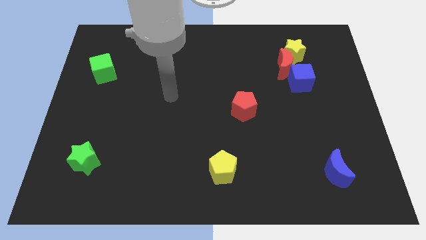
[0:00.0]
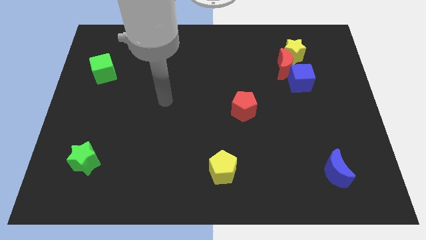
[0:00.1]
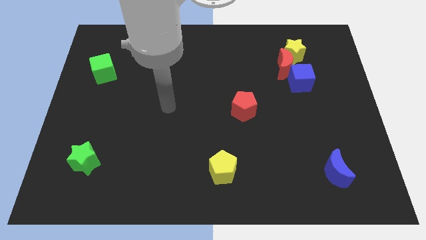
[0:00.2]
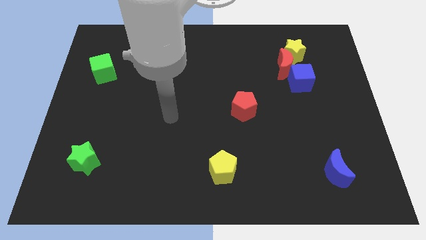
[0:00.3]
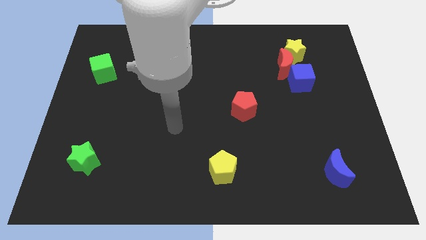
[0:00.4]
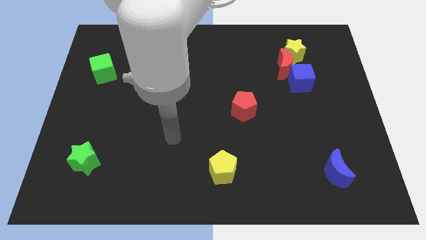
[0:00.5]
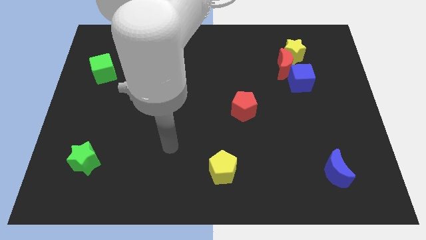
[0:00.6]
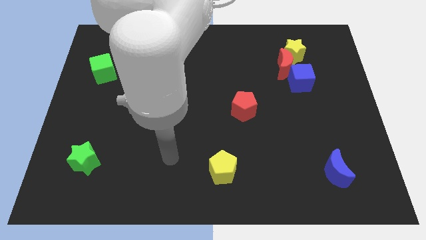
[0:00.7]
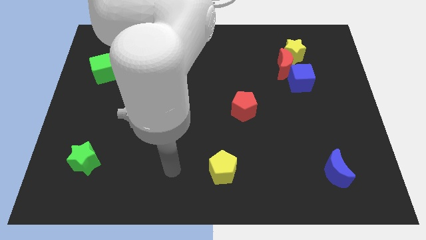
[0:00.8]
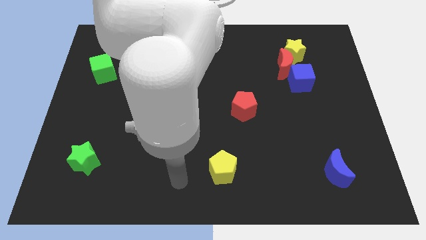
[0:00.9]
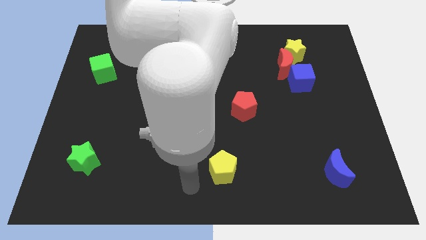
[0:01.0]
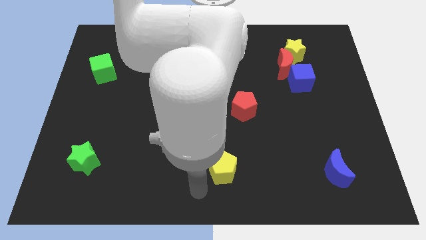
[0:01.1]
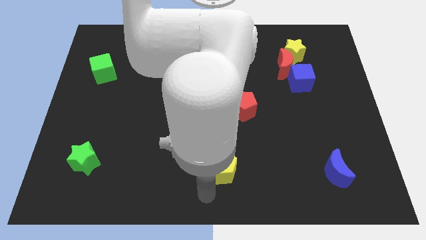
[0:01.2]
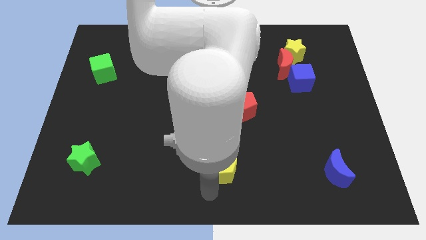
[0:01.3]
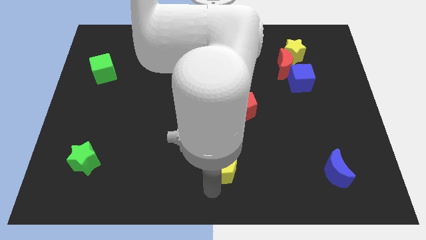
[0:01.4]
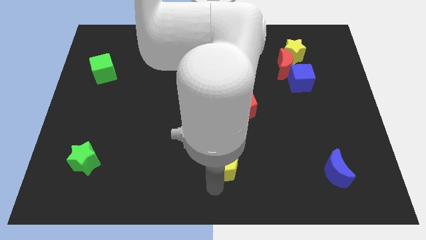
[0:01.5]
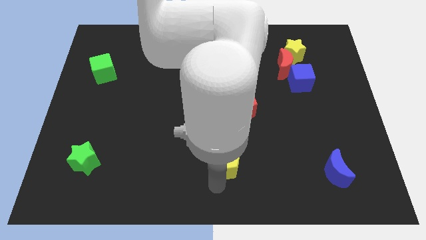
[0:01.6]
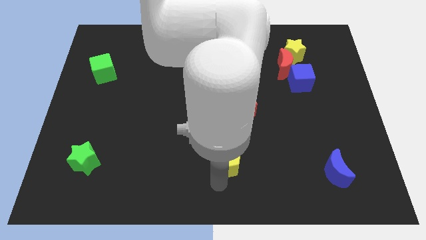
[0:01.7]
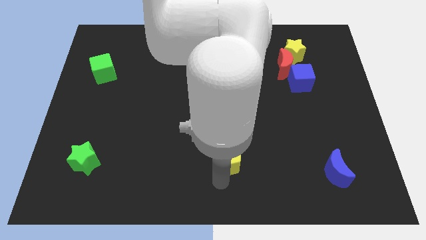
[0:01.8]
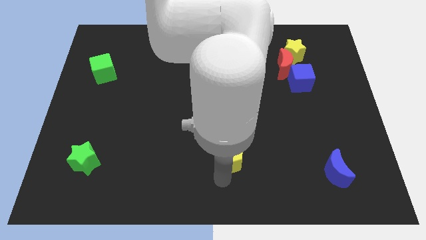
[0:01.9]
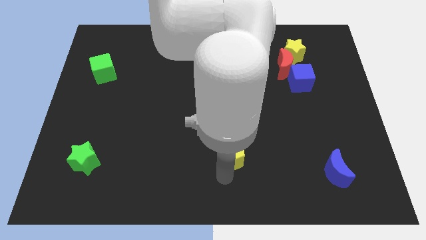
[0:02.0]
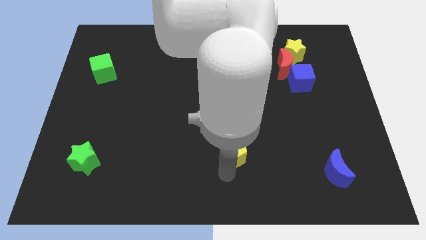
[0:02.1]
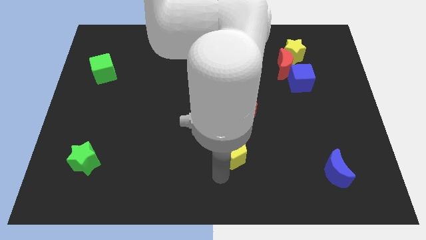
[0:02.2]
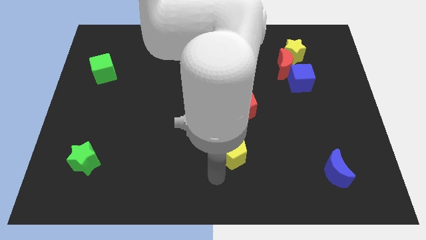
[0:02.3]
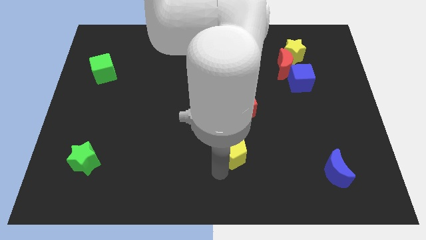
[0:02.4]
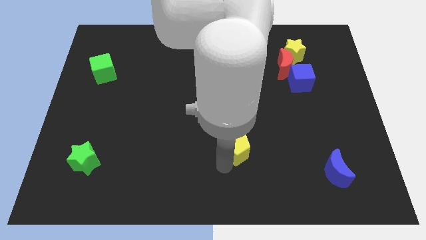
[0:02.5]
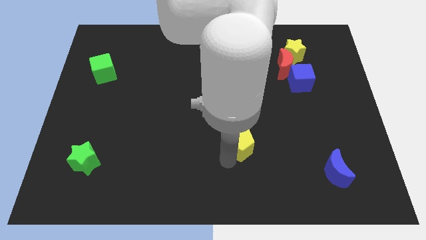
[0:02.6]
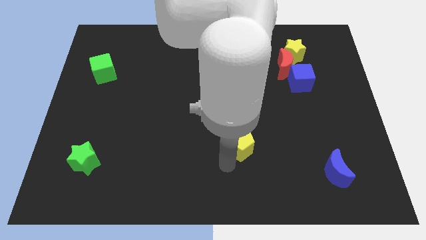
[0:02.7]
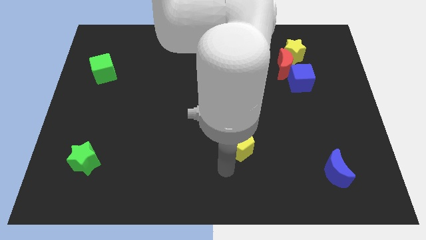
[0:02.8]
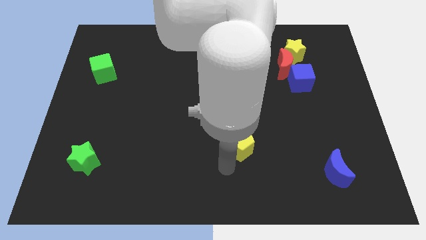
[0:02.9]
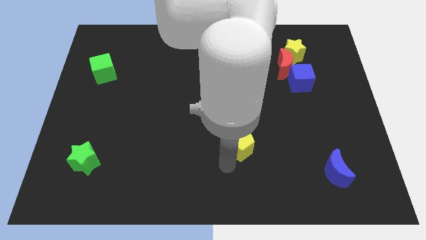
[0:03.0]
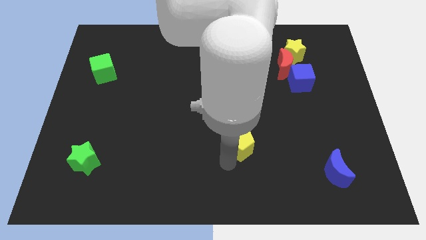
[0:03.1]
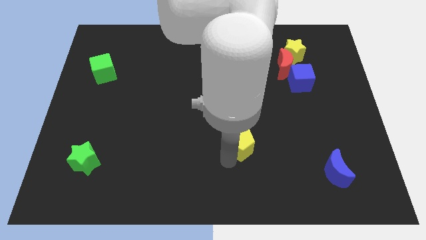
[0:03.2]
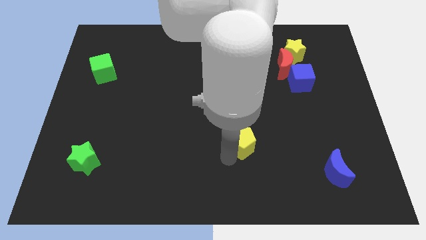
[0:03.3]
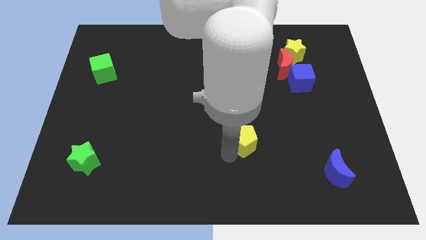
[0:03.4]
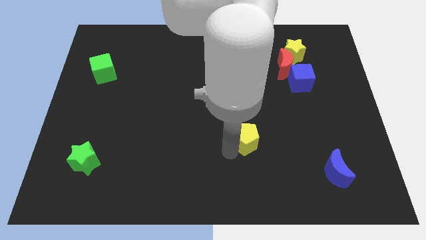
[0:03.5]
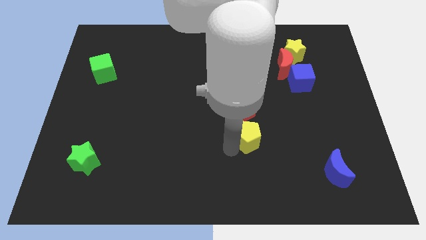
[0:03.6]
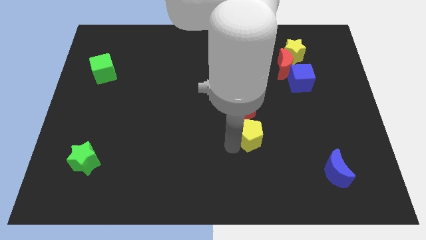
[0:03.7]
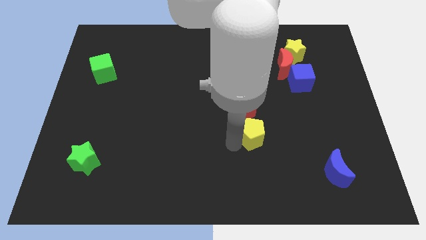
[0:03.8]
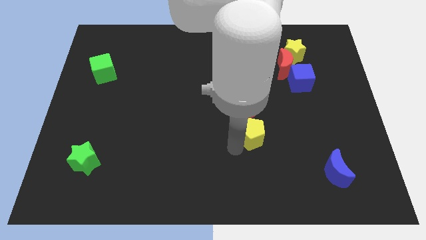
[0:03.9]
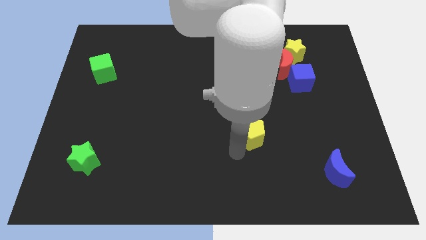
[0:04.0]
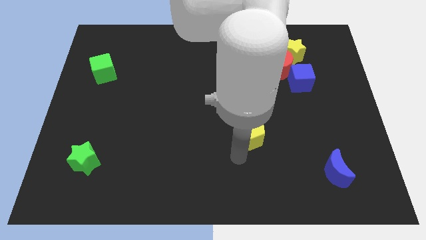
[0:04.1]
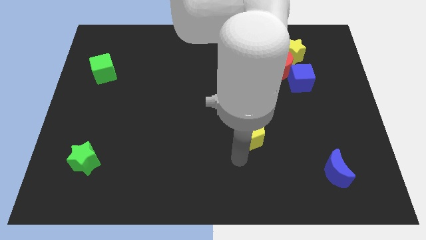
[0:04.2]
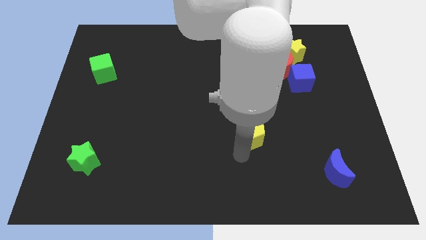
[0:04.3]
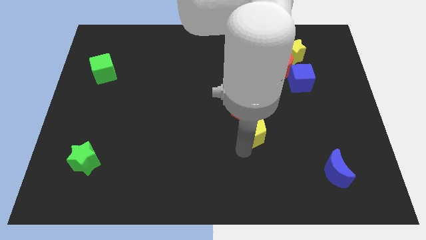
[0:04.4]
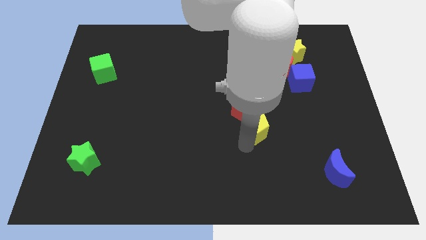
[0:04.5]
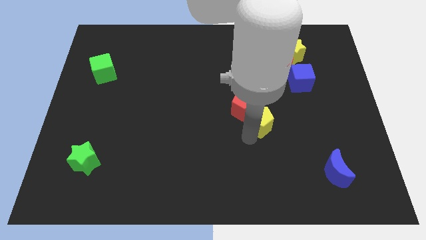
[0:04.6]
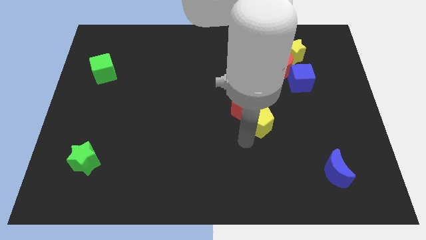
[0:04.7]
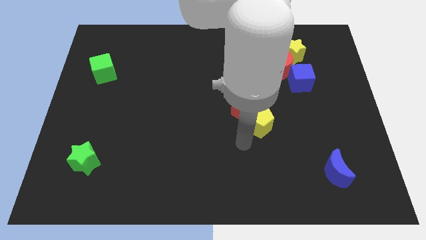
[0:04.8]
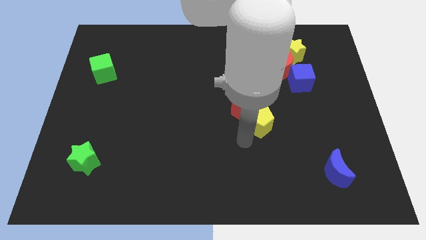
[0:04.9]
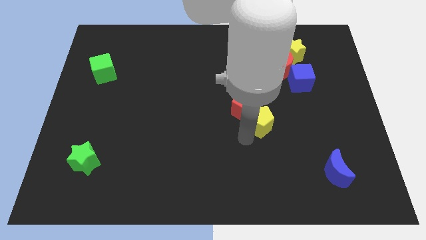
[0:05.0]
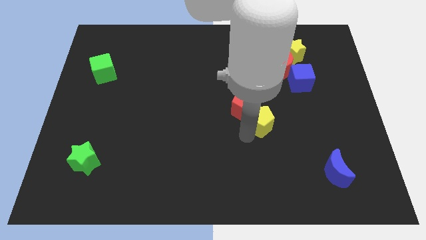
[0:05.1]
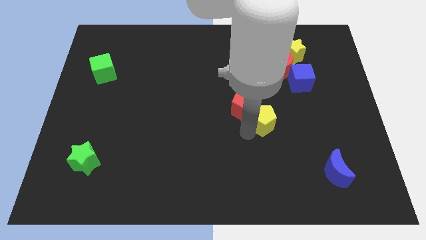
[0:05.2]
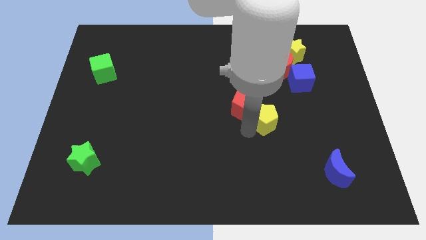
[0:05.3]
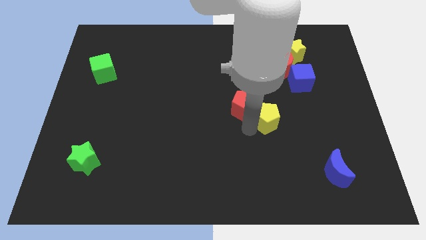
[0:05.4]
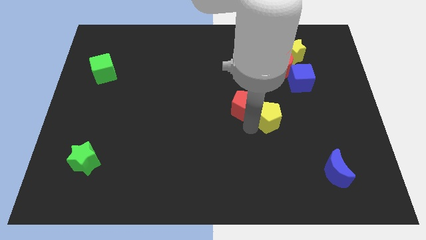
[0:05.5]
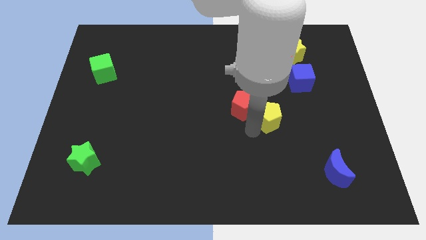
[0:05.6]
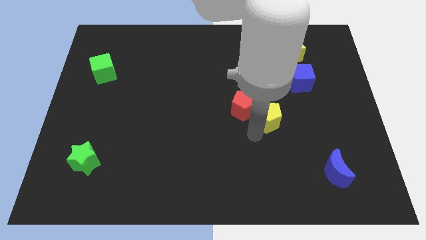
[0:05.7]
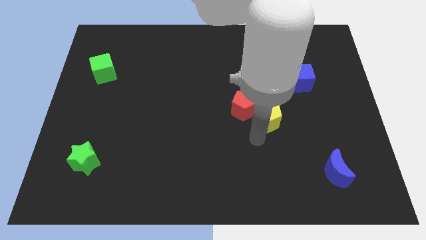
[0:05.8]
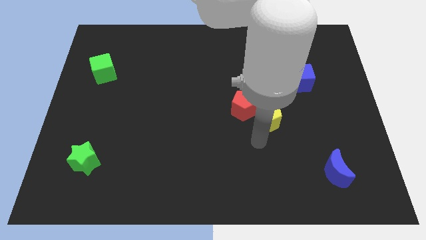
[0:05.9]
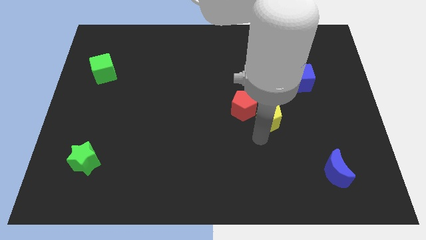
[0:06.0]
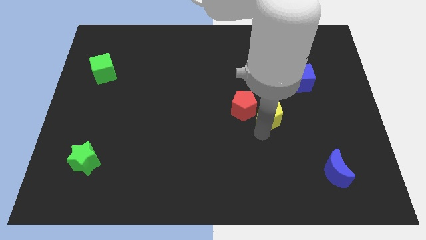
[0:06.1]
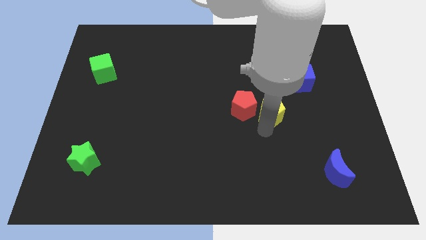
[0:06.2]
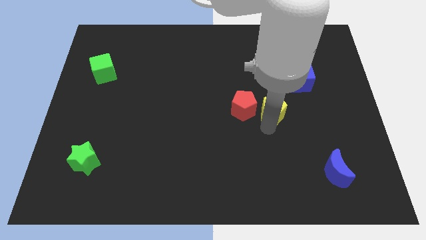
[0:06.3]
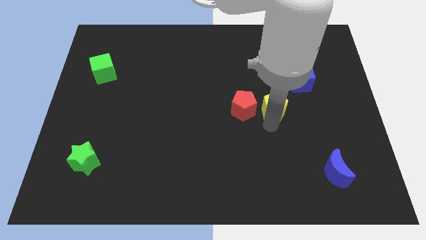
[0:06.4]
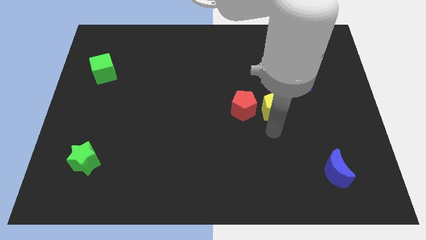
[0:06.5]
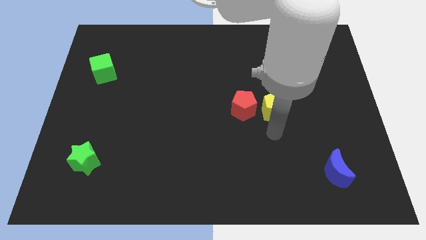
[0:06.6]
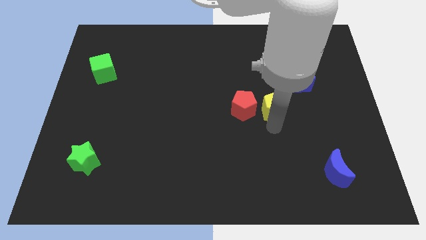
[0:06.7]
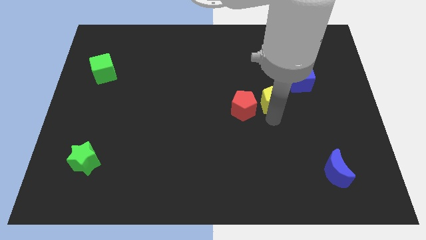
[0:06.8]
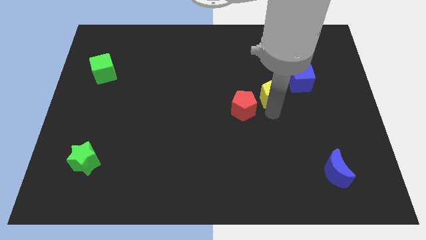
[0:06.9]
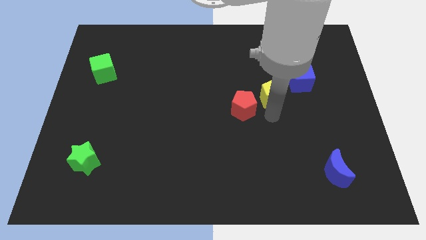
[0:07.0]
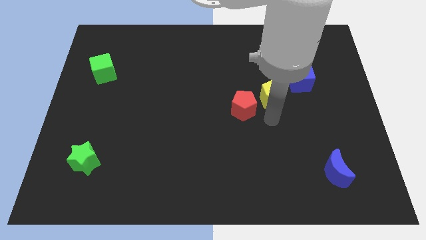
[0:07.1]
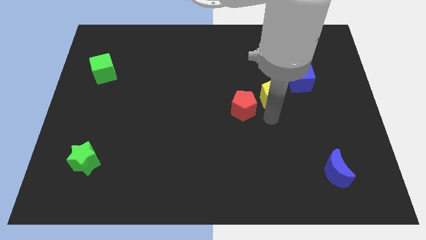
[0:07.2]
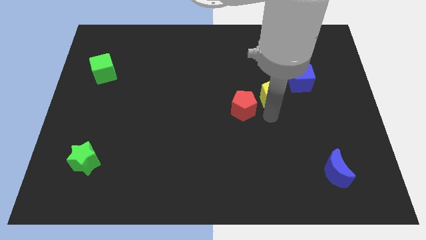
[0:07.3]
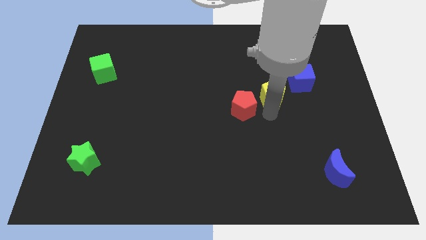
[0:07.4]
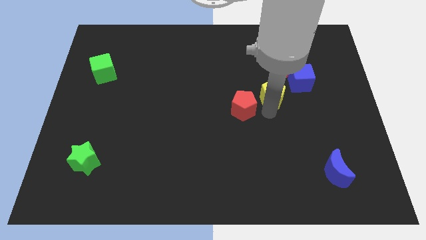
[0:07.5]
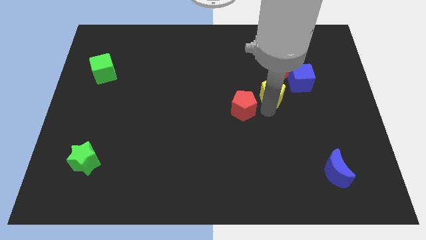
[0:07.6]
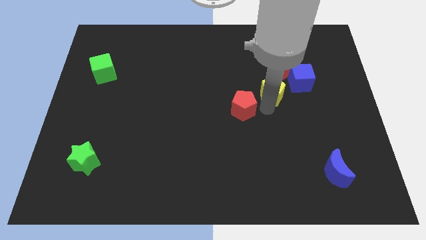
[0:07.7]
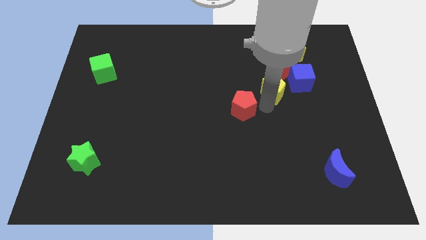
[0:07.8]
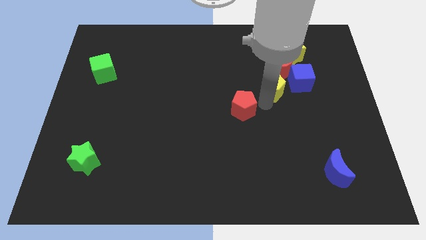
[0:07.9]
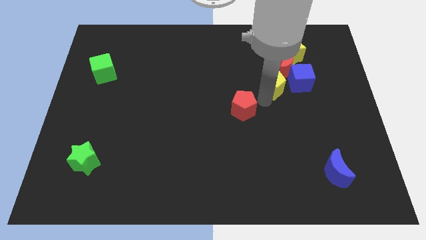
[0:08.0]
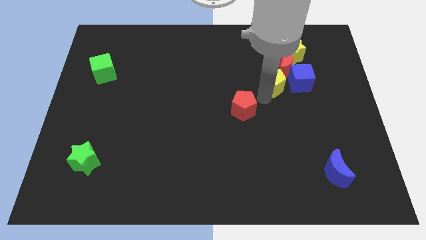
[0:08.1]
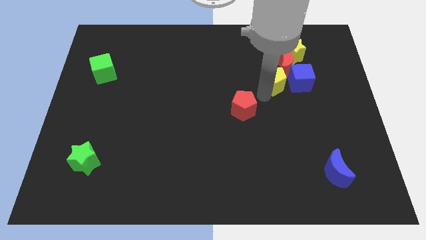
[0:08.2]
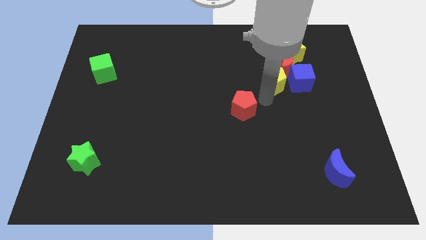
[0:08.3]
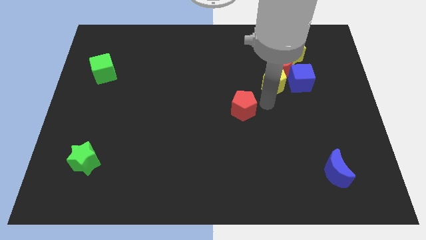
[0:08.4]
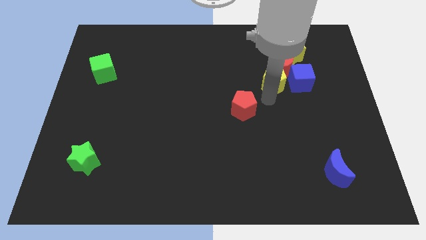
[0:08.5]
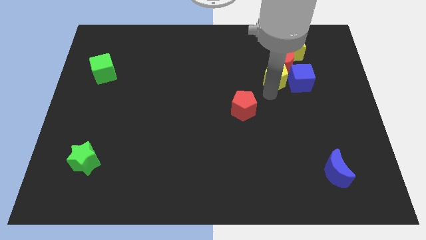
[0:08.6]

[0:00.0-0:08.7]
slide the yellow pentagon to the top left of the blue cube
